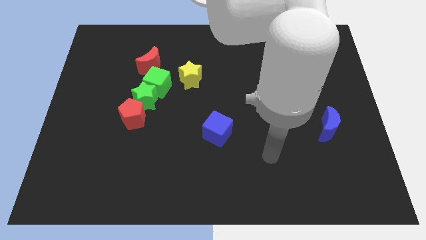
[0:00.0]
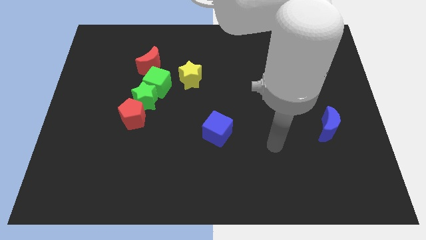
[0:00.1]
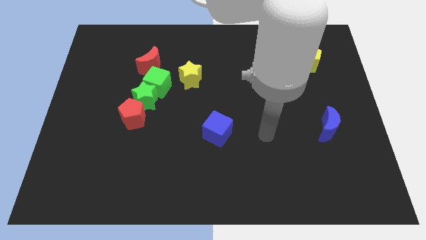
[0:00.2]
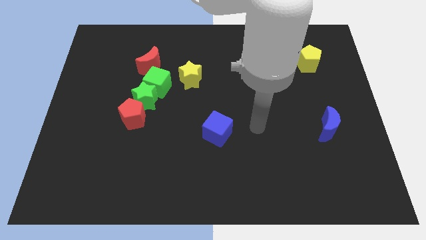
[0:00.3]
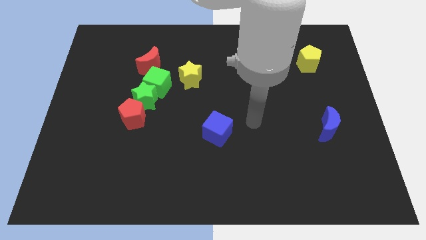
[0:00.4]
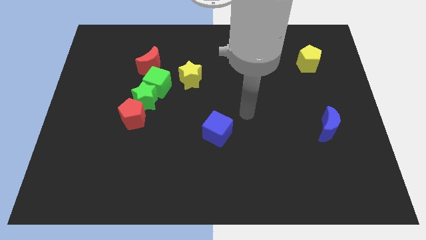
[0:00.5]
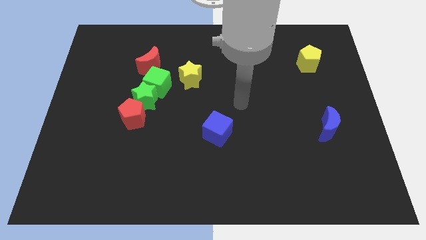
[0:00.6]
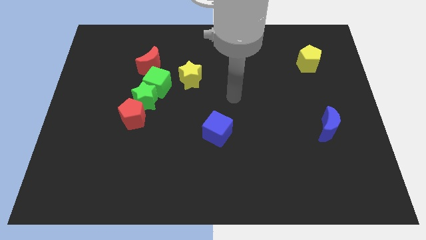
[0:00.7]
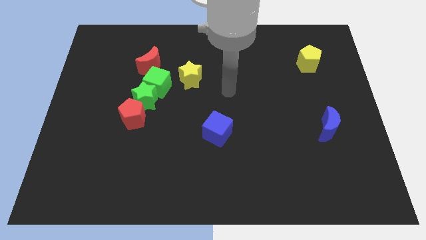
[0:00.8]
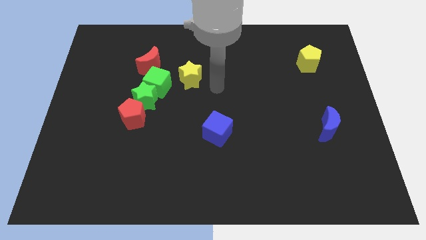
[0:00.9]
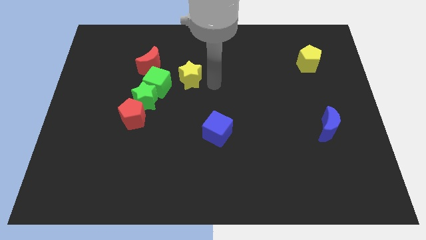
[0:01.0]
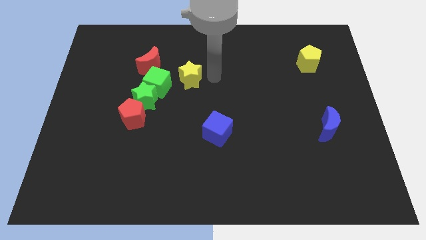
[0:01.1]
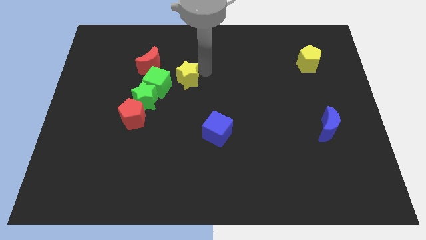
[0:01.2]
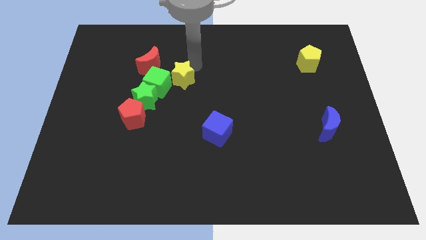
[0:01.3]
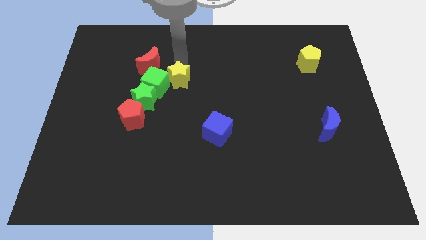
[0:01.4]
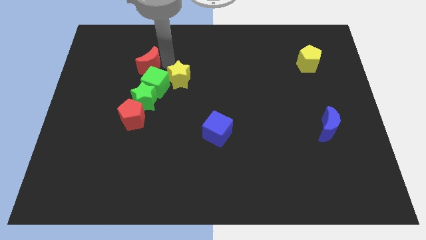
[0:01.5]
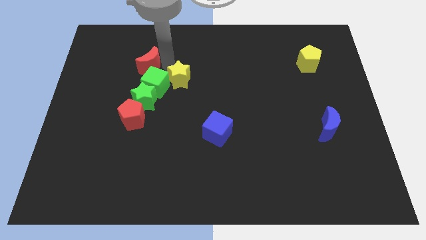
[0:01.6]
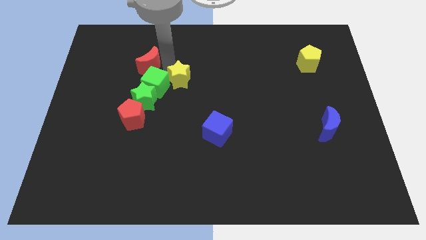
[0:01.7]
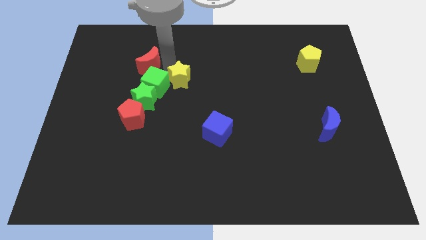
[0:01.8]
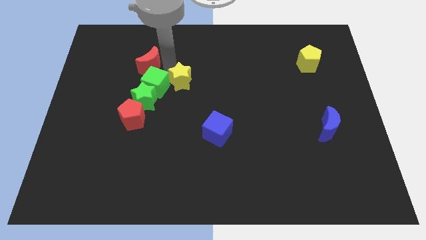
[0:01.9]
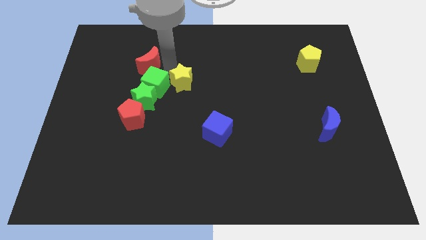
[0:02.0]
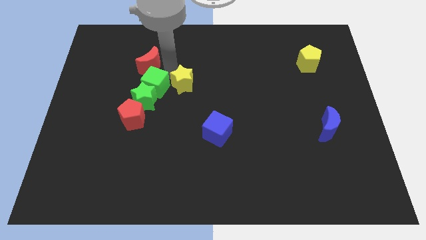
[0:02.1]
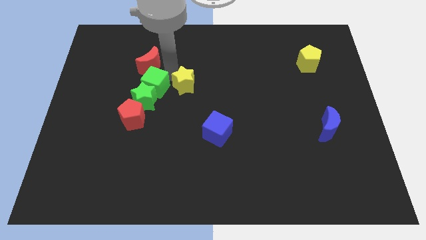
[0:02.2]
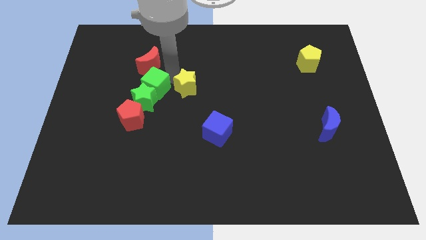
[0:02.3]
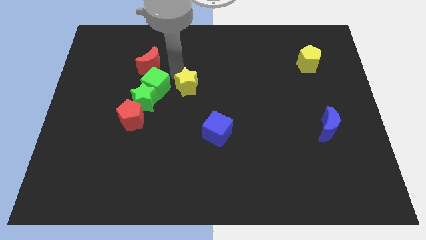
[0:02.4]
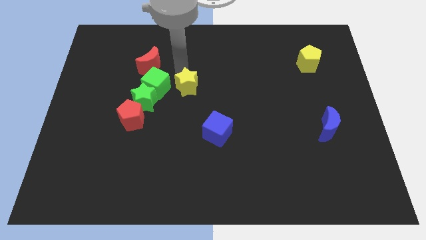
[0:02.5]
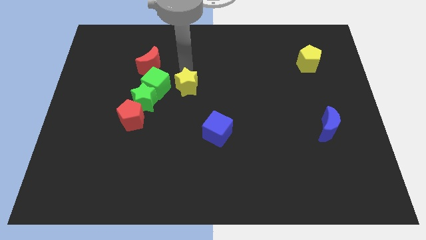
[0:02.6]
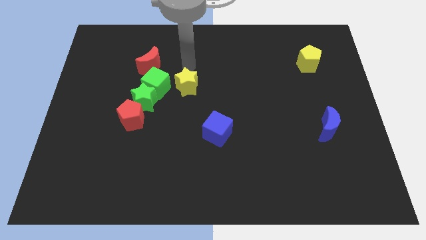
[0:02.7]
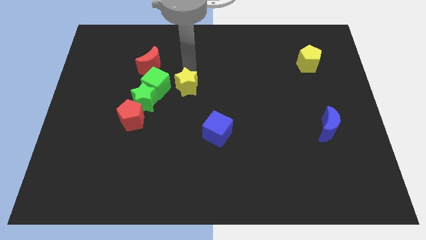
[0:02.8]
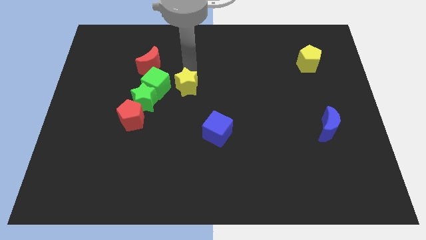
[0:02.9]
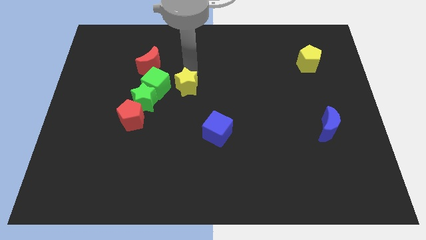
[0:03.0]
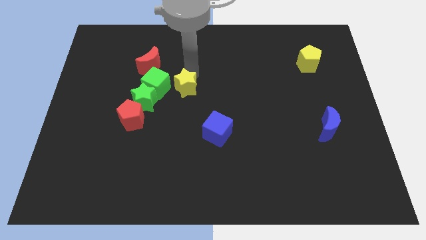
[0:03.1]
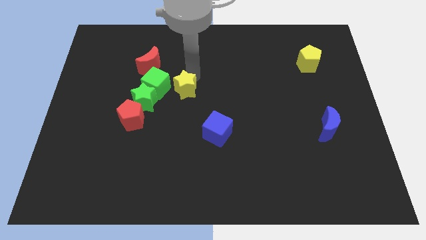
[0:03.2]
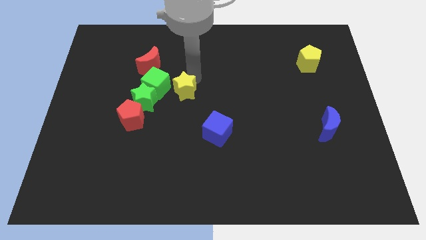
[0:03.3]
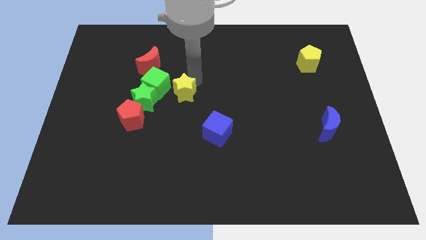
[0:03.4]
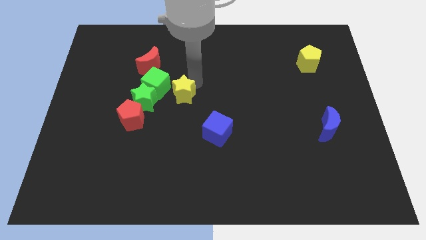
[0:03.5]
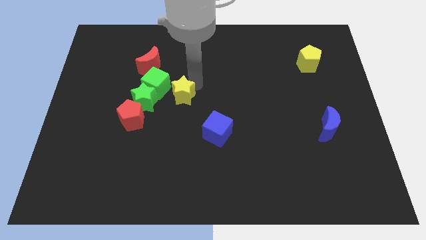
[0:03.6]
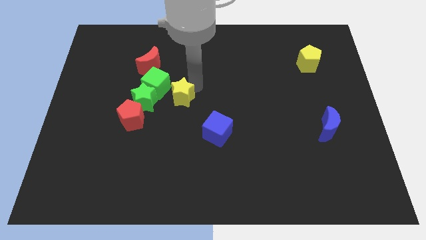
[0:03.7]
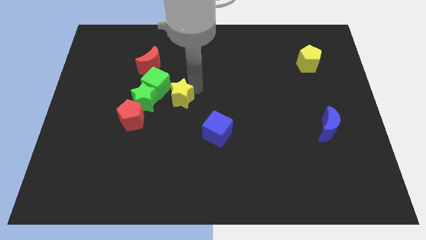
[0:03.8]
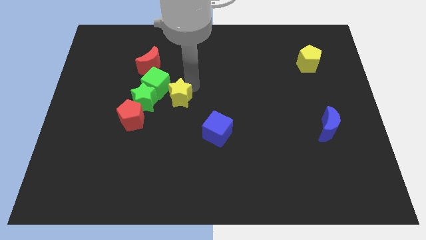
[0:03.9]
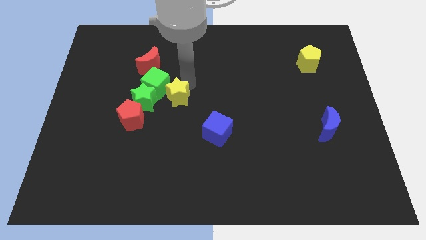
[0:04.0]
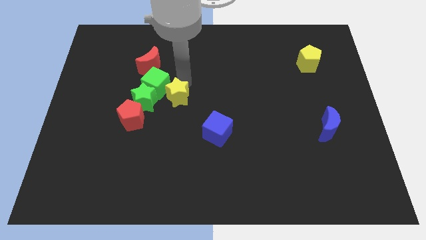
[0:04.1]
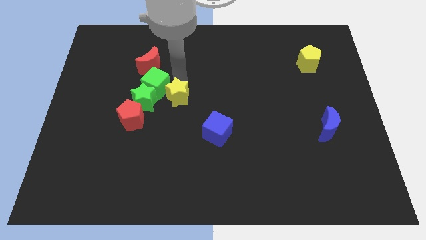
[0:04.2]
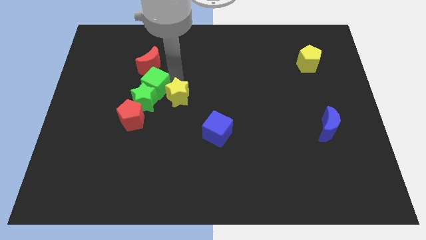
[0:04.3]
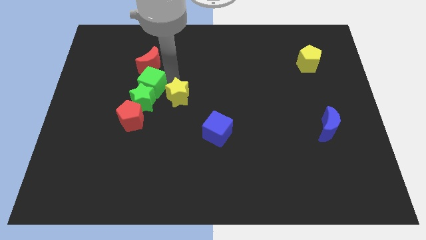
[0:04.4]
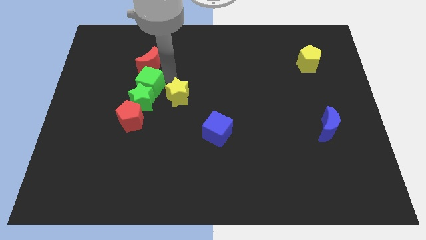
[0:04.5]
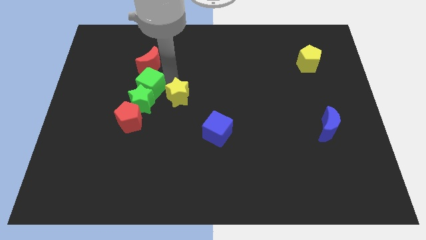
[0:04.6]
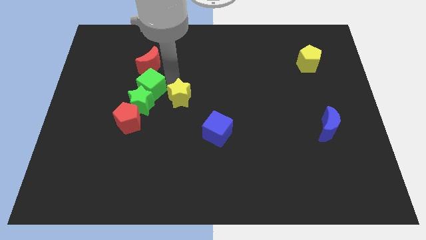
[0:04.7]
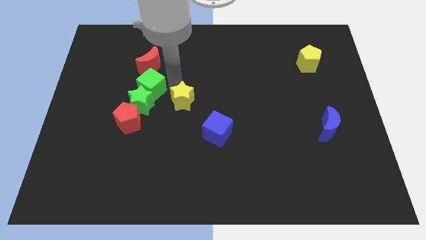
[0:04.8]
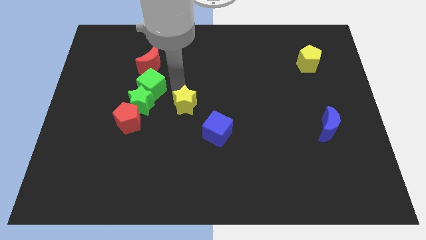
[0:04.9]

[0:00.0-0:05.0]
move the yellow star a little bit down

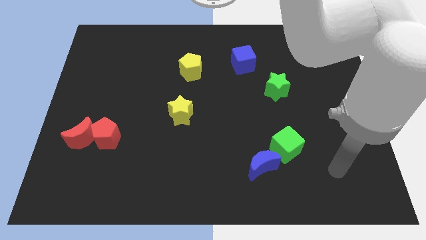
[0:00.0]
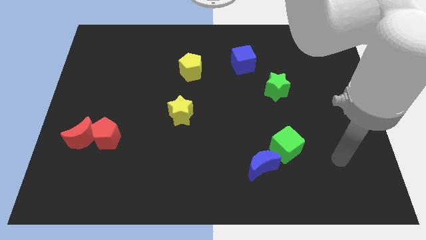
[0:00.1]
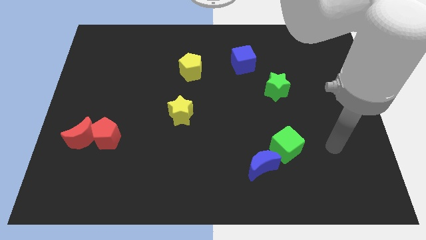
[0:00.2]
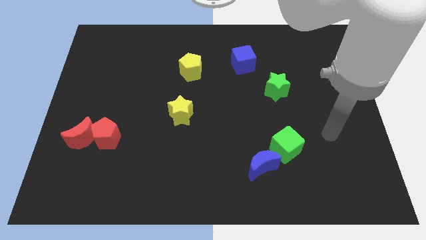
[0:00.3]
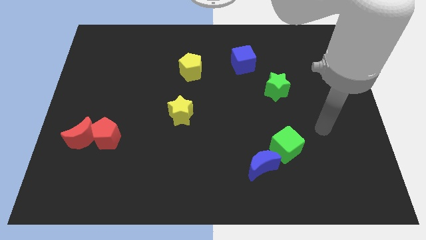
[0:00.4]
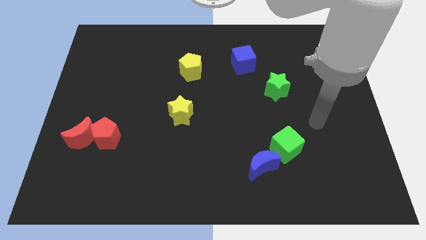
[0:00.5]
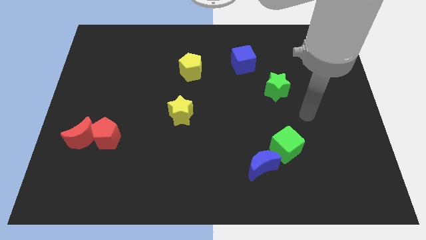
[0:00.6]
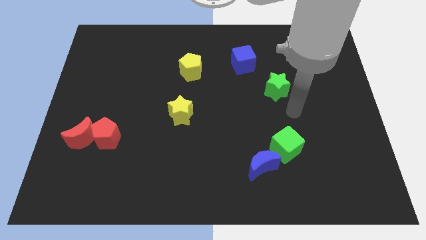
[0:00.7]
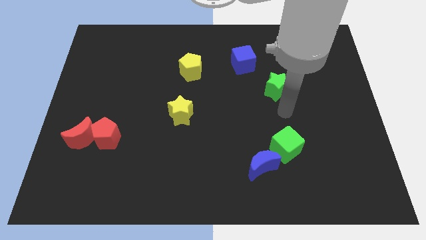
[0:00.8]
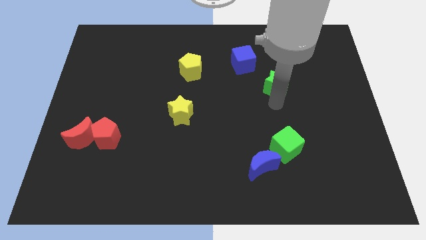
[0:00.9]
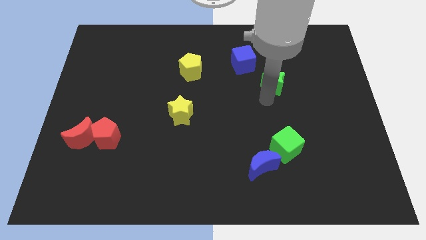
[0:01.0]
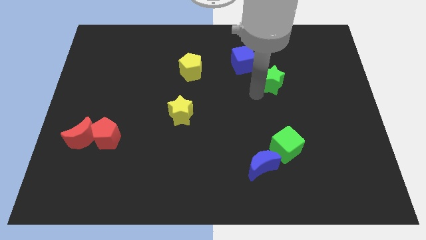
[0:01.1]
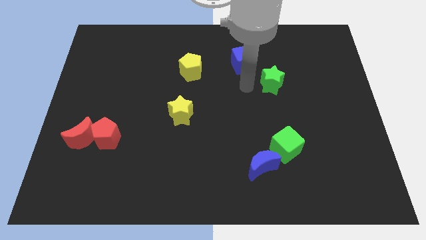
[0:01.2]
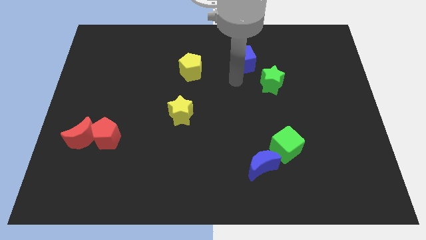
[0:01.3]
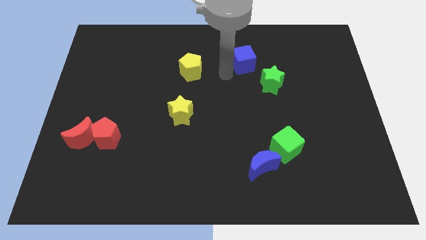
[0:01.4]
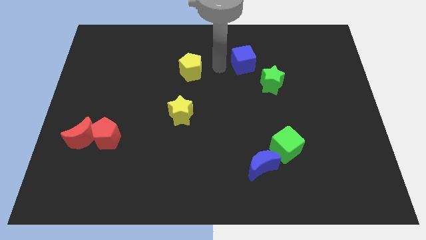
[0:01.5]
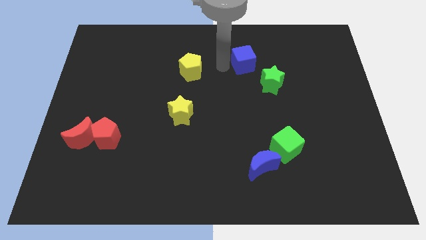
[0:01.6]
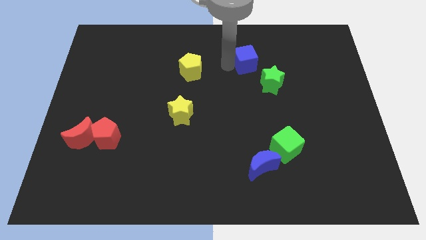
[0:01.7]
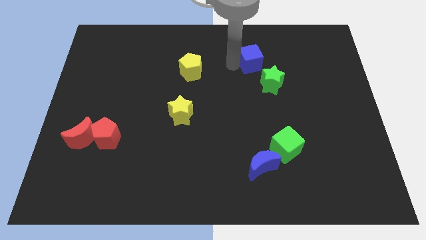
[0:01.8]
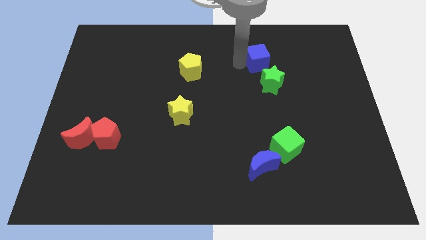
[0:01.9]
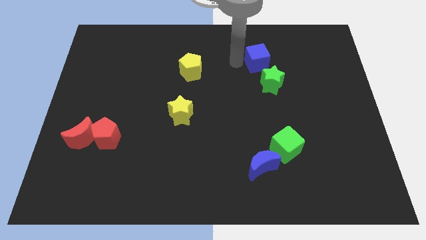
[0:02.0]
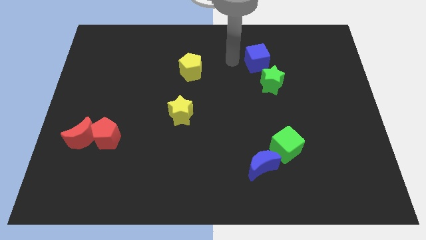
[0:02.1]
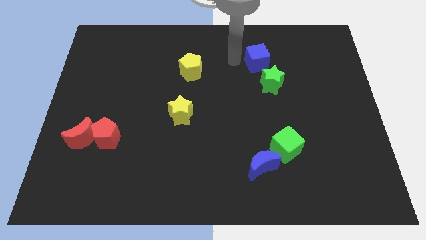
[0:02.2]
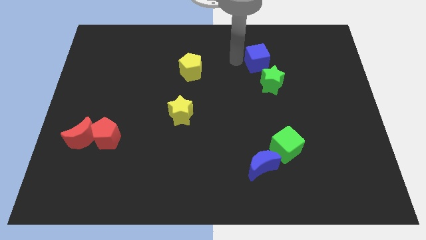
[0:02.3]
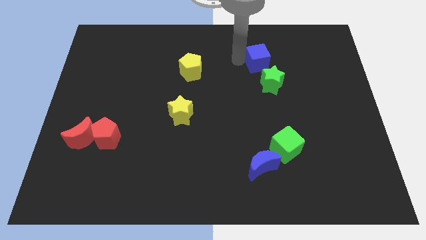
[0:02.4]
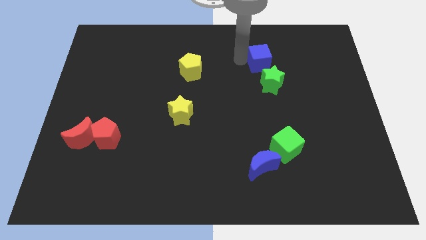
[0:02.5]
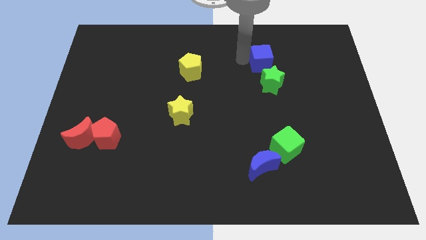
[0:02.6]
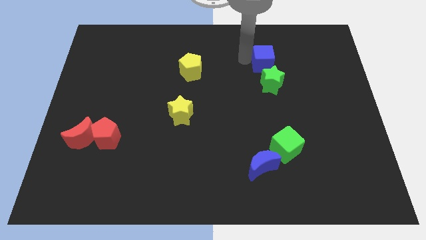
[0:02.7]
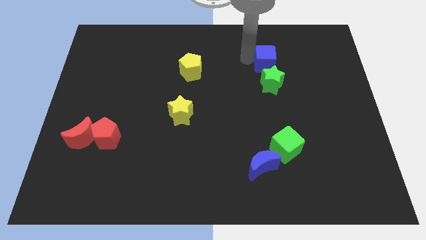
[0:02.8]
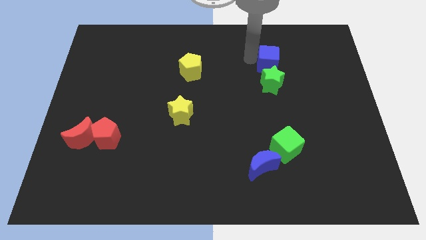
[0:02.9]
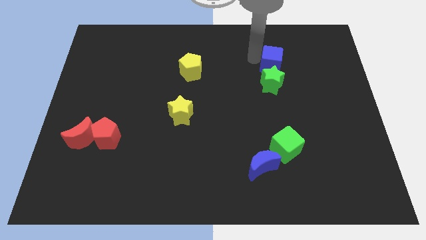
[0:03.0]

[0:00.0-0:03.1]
move the blue cube to the right a little bit

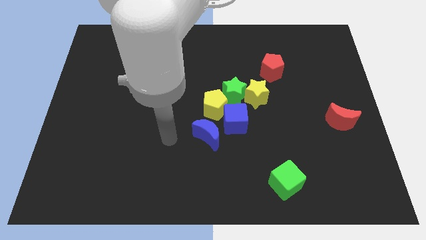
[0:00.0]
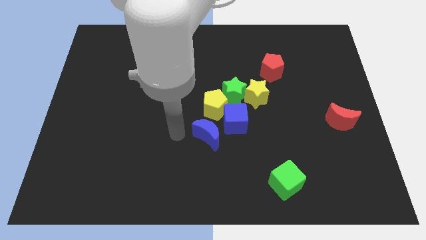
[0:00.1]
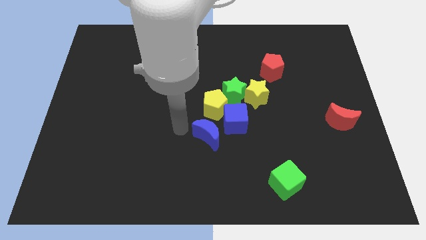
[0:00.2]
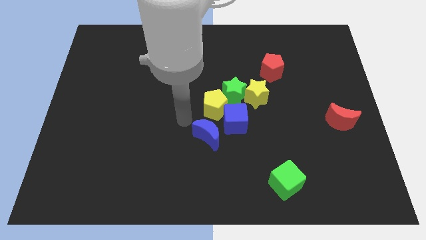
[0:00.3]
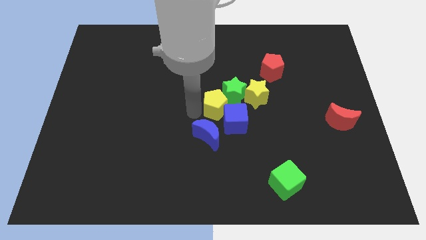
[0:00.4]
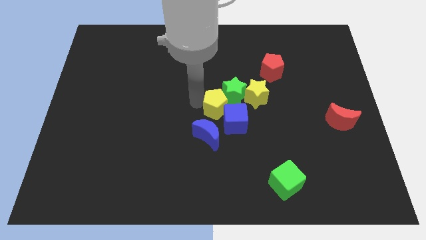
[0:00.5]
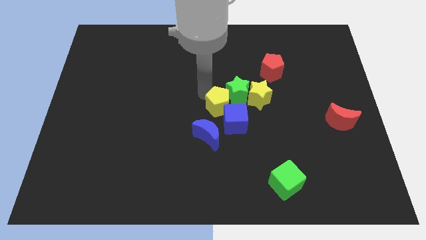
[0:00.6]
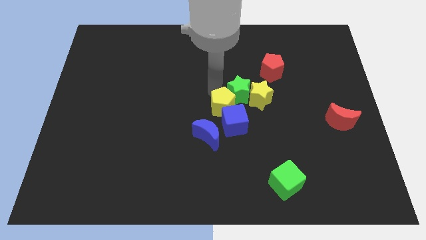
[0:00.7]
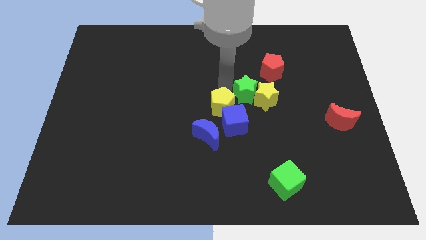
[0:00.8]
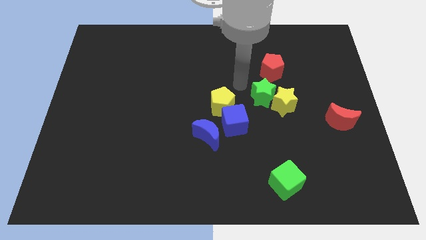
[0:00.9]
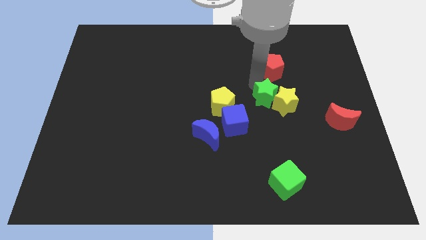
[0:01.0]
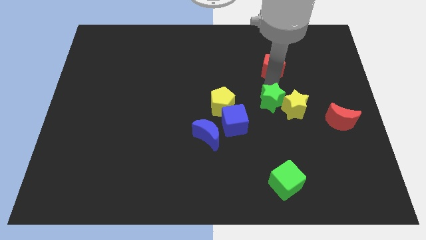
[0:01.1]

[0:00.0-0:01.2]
push the yellow star slightly downwards and right diagonally
